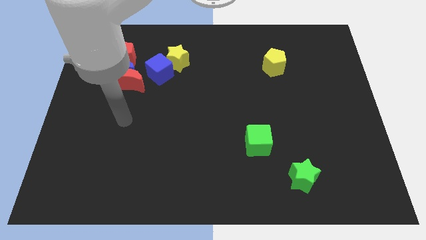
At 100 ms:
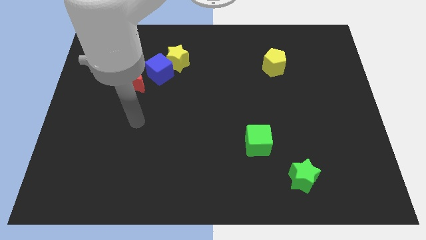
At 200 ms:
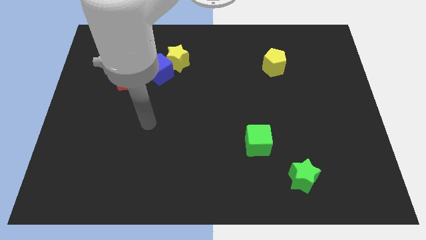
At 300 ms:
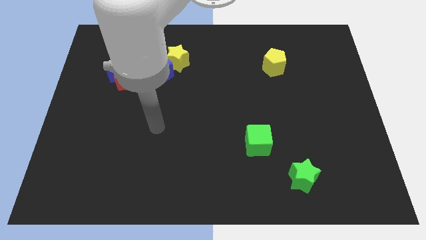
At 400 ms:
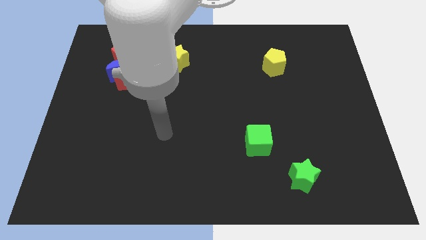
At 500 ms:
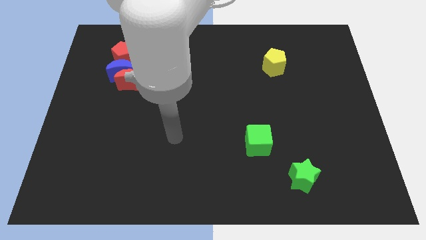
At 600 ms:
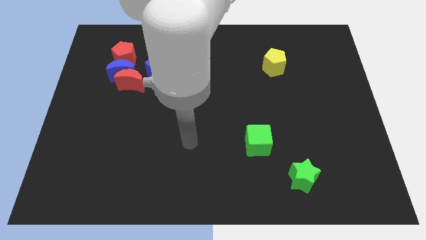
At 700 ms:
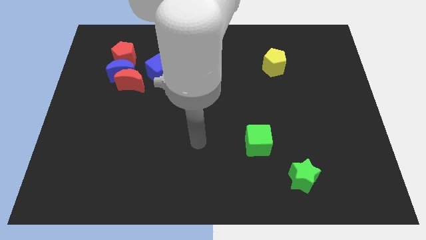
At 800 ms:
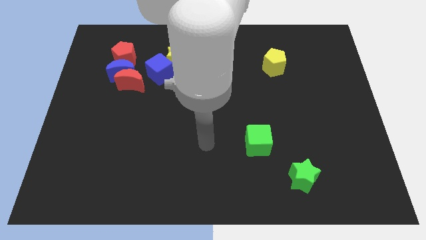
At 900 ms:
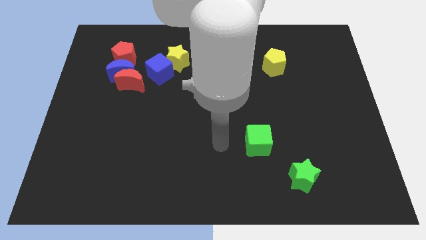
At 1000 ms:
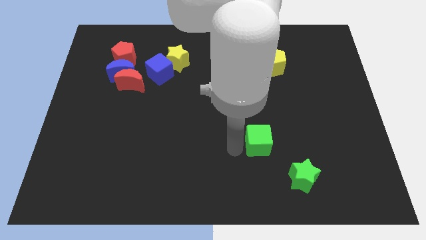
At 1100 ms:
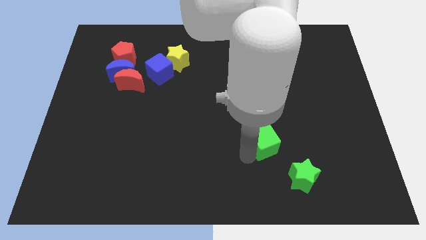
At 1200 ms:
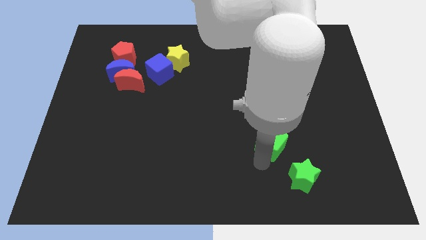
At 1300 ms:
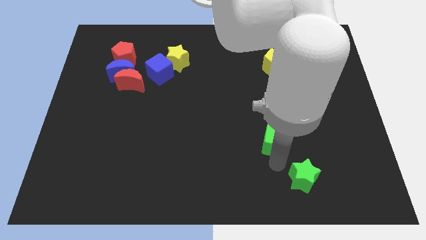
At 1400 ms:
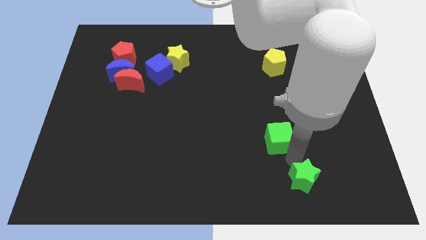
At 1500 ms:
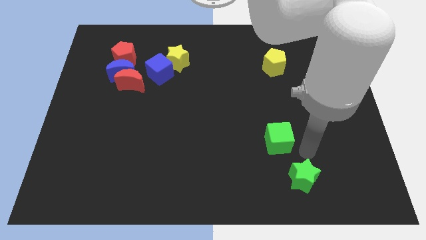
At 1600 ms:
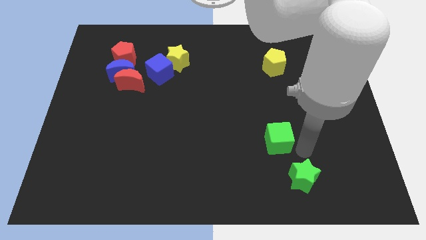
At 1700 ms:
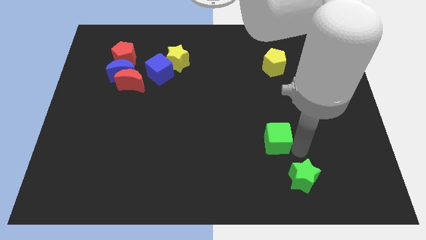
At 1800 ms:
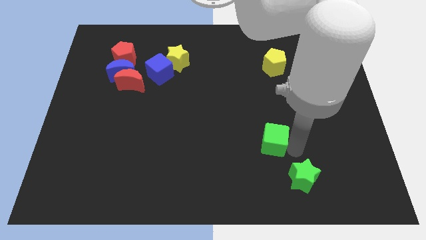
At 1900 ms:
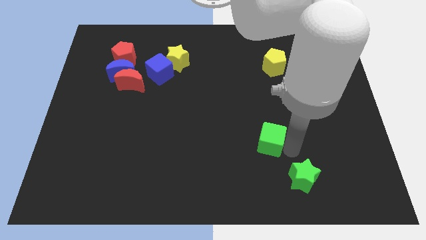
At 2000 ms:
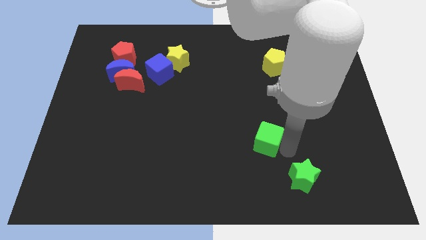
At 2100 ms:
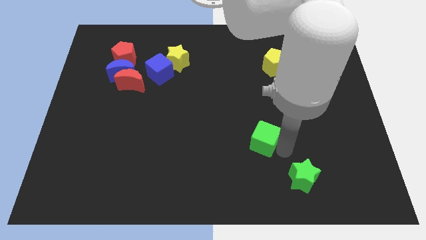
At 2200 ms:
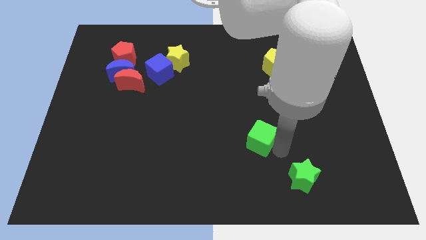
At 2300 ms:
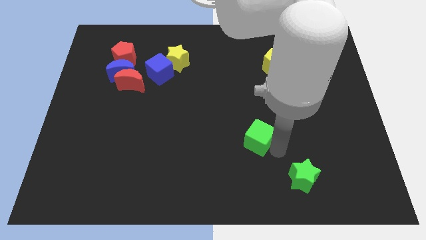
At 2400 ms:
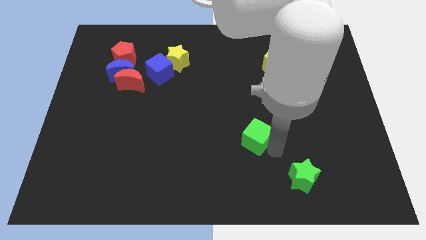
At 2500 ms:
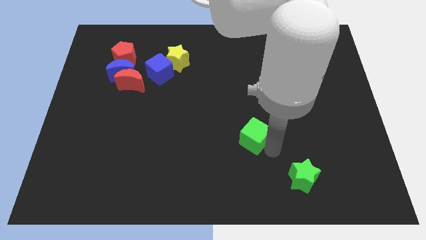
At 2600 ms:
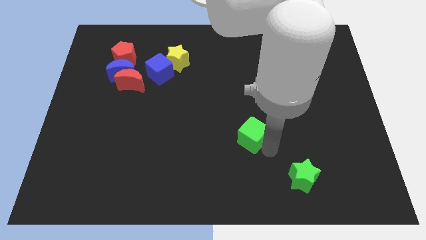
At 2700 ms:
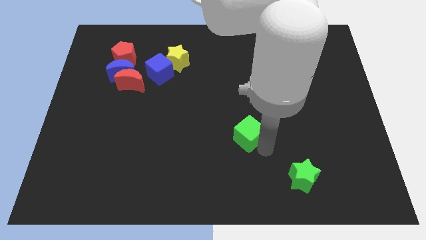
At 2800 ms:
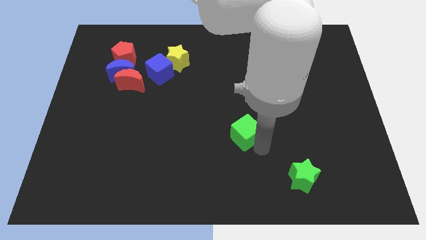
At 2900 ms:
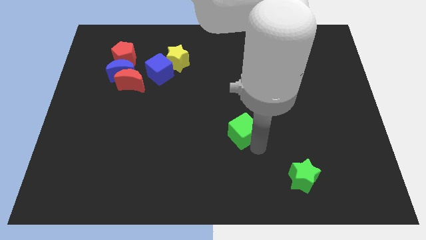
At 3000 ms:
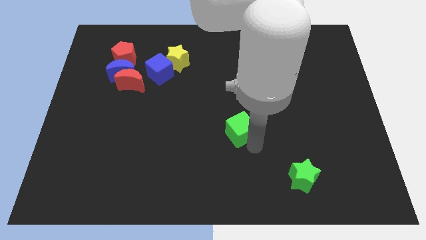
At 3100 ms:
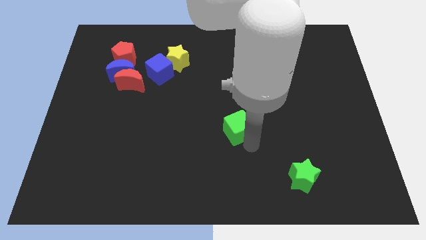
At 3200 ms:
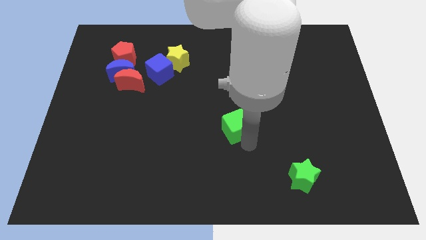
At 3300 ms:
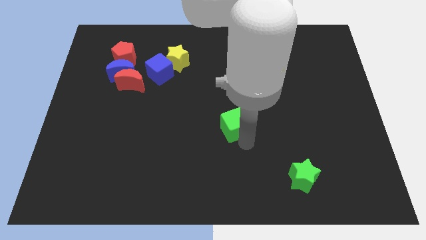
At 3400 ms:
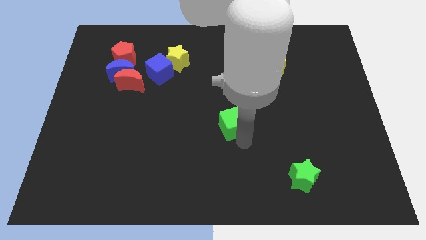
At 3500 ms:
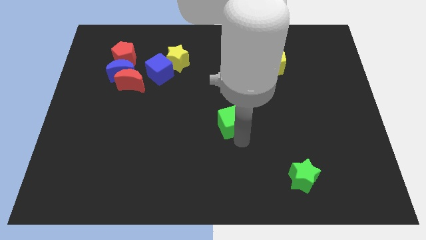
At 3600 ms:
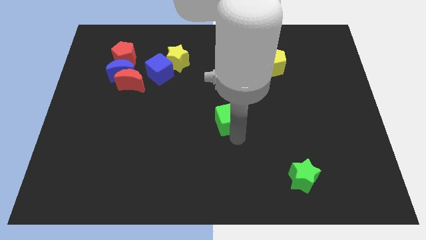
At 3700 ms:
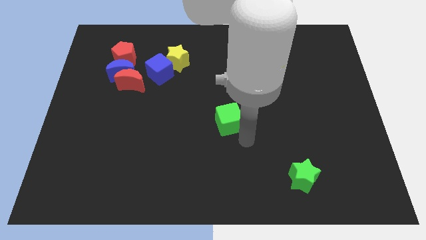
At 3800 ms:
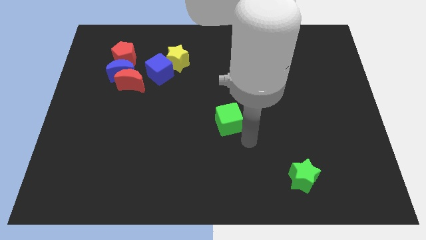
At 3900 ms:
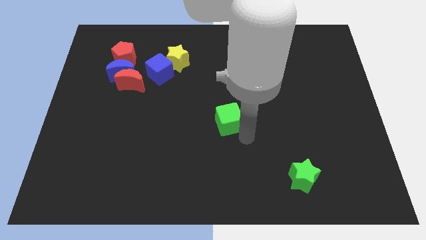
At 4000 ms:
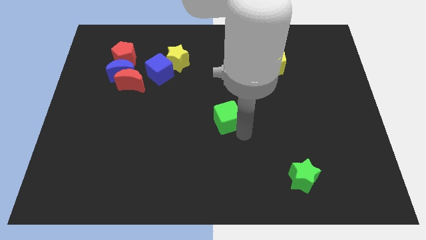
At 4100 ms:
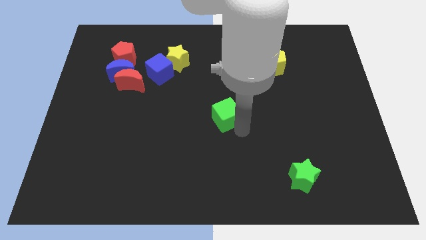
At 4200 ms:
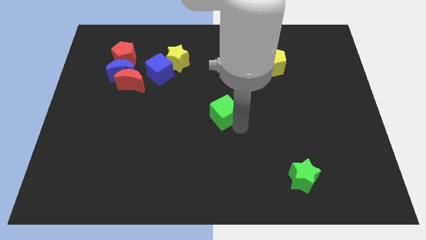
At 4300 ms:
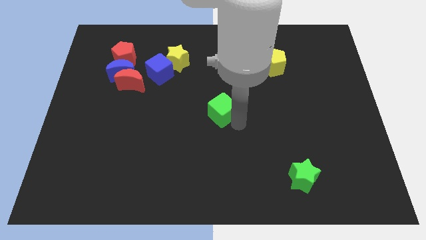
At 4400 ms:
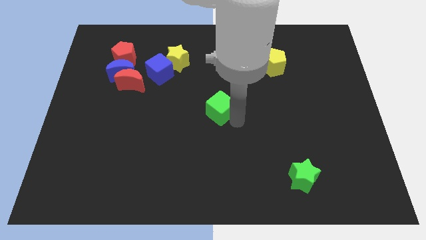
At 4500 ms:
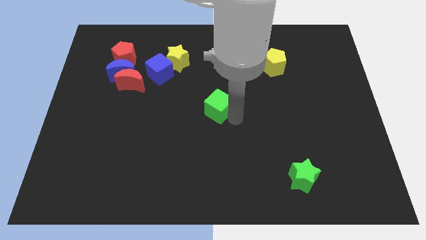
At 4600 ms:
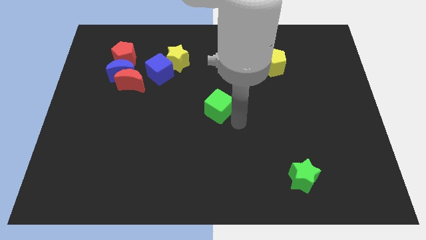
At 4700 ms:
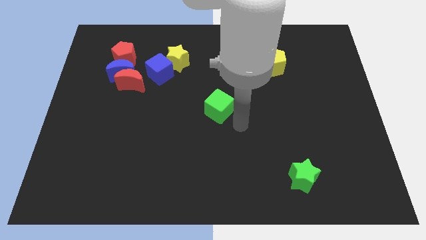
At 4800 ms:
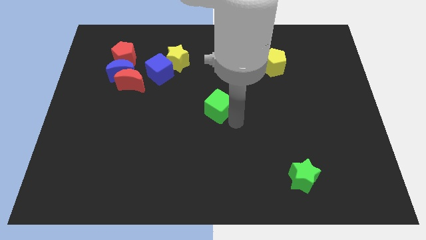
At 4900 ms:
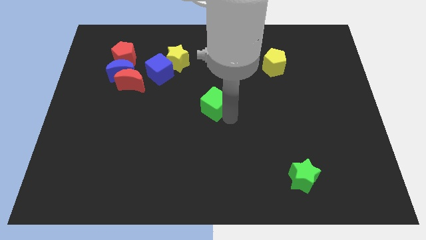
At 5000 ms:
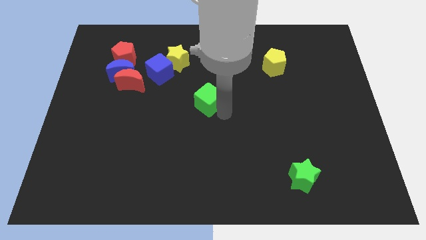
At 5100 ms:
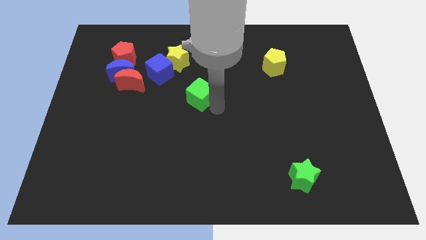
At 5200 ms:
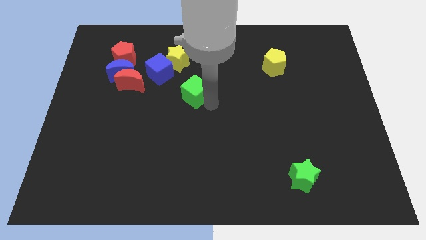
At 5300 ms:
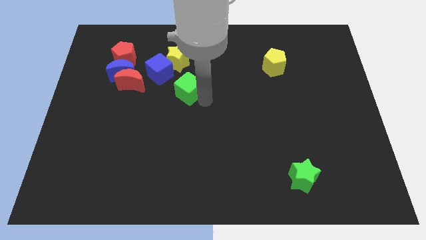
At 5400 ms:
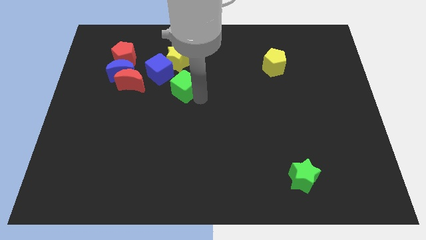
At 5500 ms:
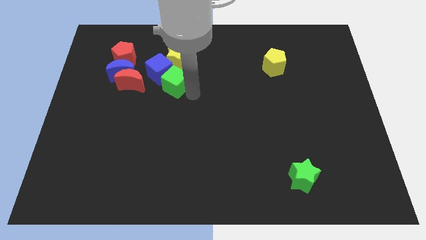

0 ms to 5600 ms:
move the green cube close to the blue cube

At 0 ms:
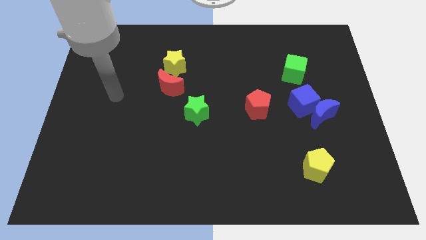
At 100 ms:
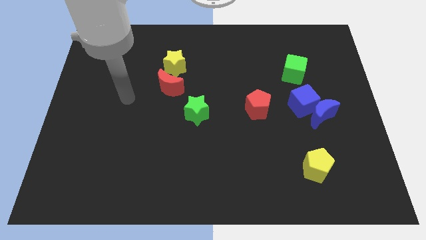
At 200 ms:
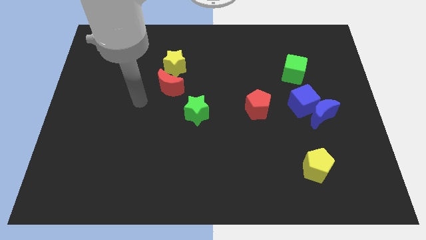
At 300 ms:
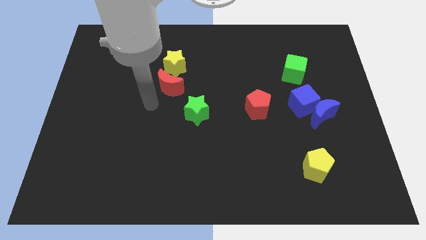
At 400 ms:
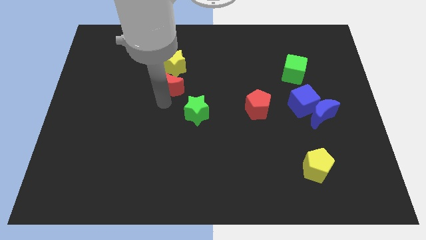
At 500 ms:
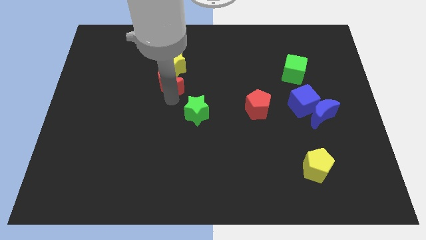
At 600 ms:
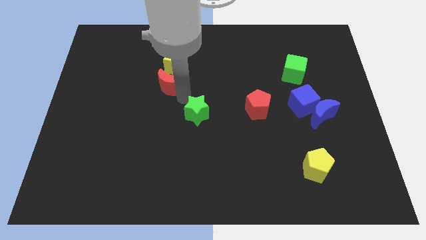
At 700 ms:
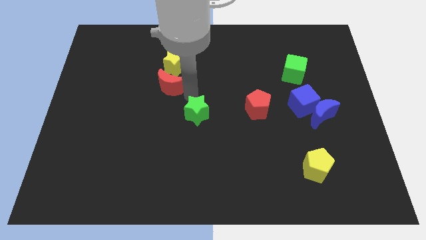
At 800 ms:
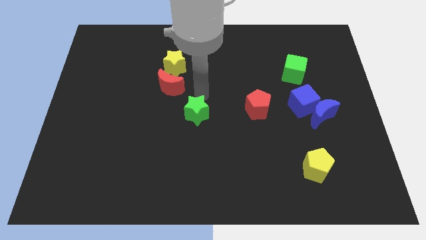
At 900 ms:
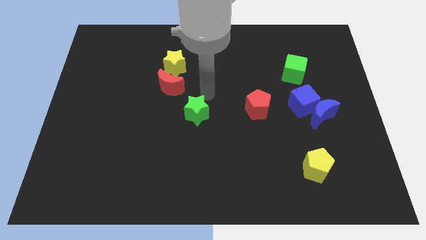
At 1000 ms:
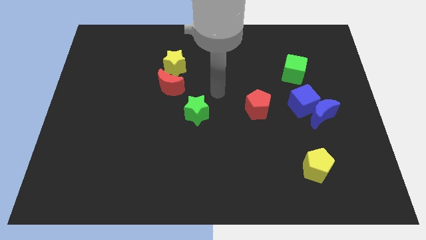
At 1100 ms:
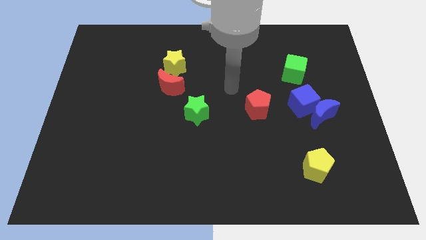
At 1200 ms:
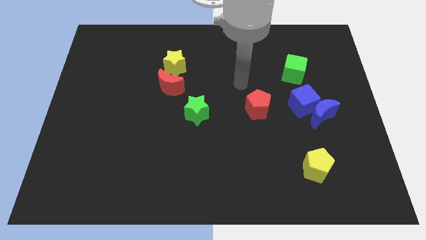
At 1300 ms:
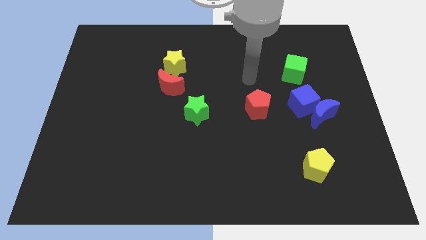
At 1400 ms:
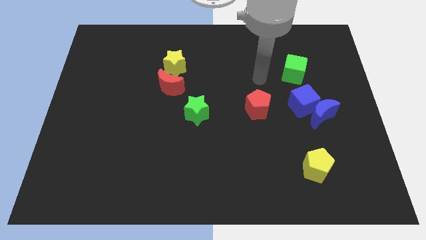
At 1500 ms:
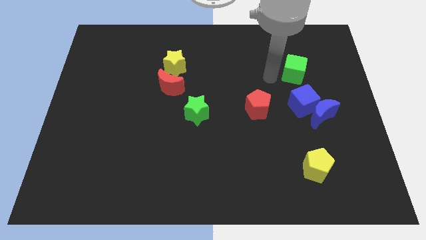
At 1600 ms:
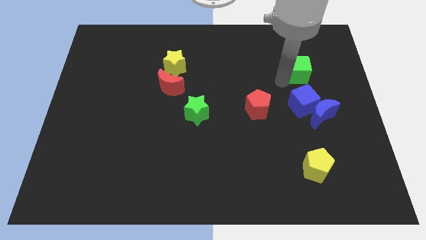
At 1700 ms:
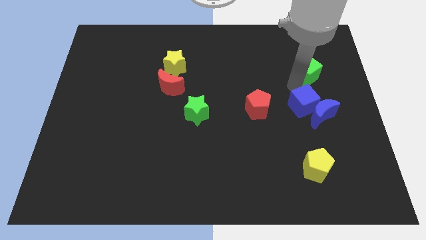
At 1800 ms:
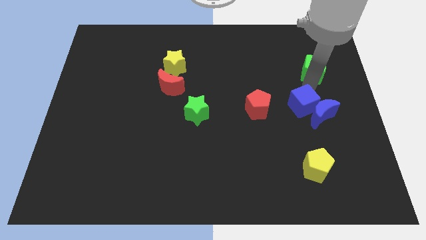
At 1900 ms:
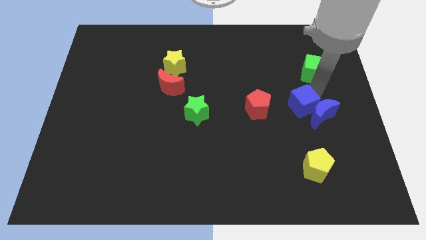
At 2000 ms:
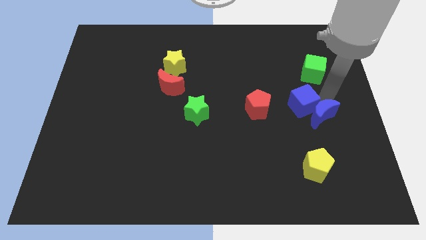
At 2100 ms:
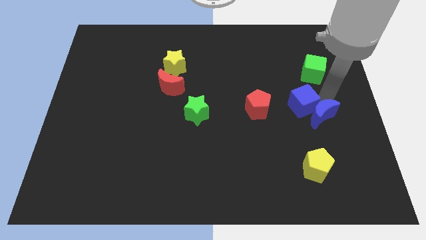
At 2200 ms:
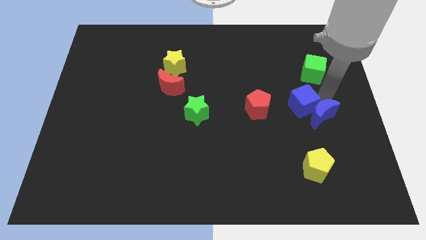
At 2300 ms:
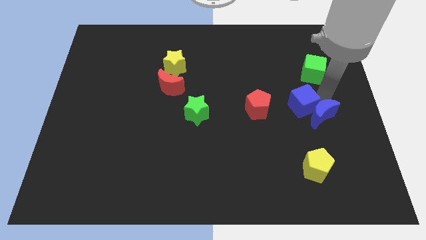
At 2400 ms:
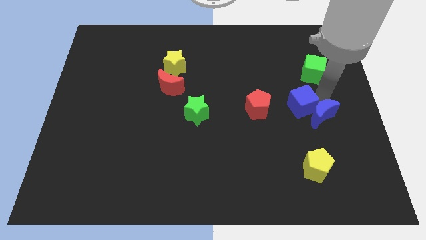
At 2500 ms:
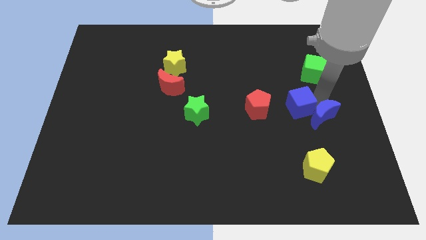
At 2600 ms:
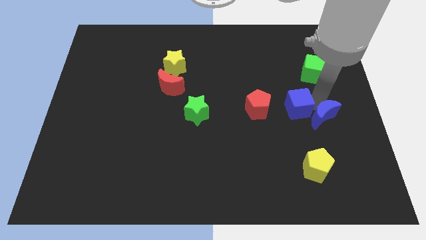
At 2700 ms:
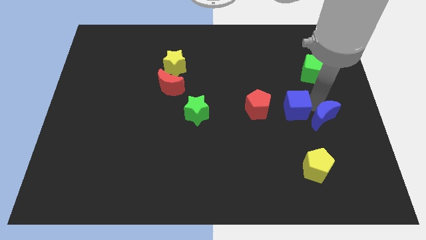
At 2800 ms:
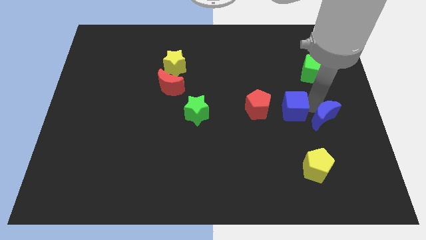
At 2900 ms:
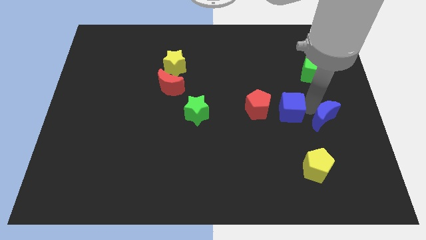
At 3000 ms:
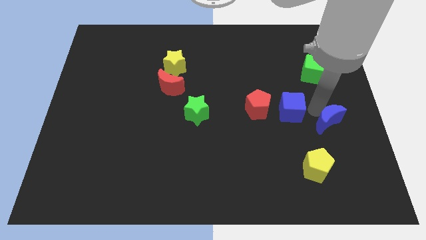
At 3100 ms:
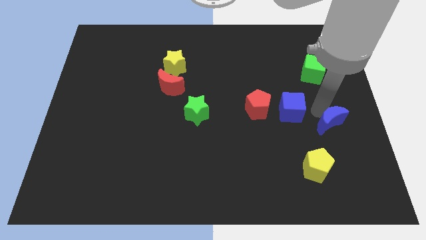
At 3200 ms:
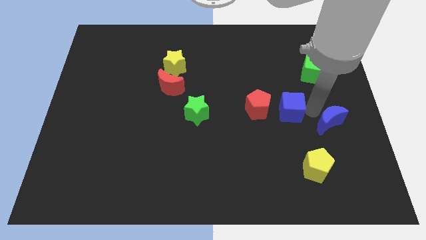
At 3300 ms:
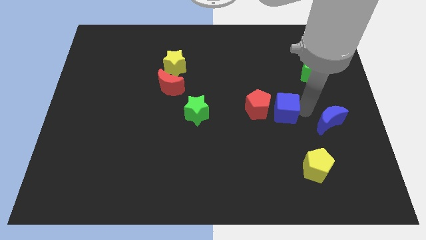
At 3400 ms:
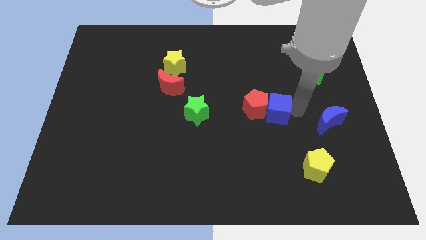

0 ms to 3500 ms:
push the blue cube next to the red pentagon
